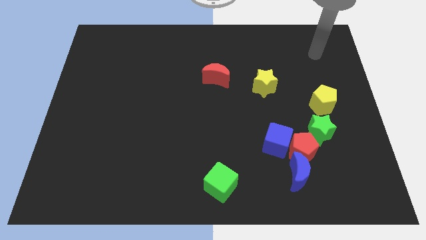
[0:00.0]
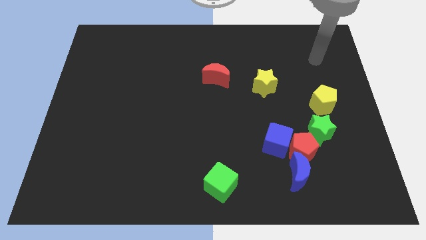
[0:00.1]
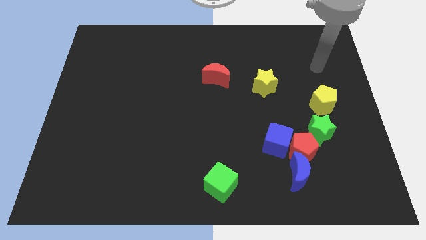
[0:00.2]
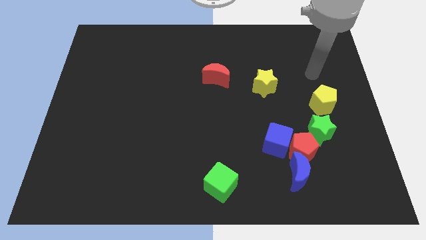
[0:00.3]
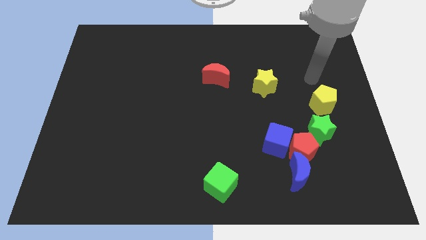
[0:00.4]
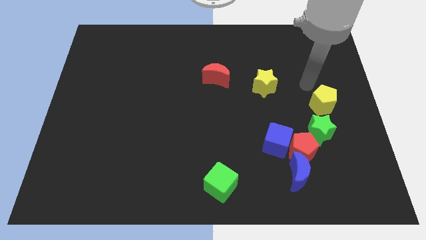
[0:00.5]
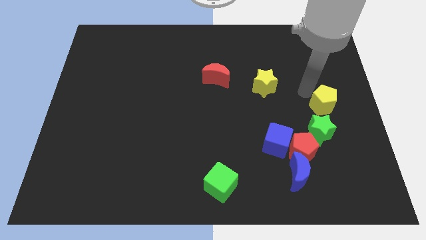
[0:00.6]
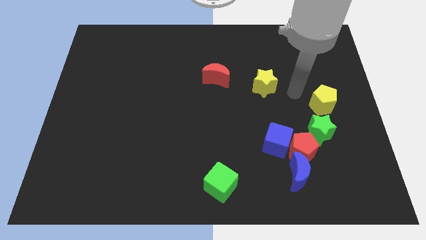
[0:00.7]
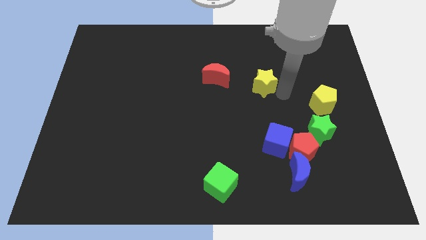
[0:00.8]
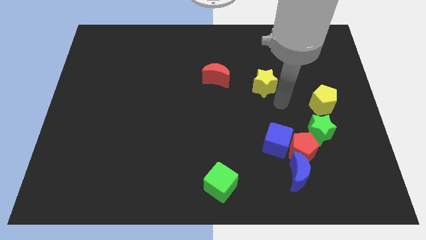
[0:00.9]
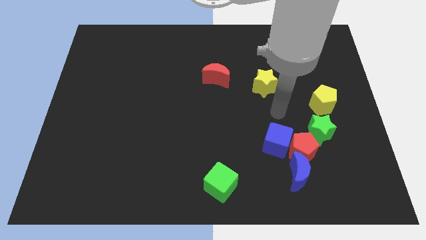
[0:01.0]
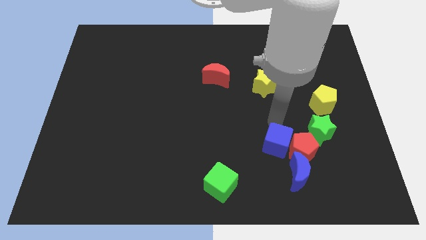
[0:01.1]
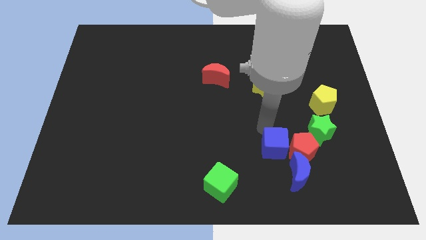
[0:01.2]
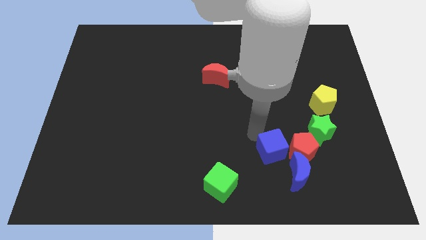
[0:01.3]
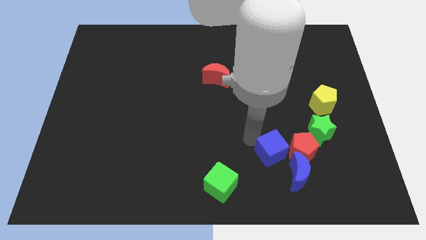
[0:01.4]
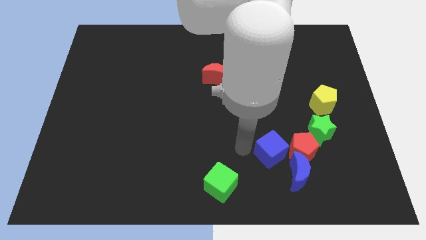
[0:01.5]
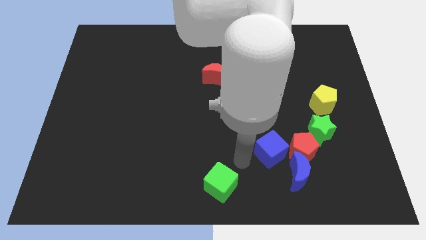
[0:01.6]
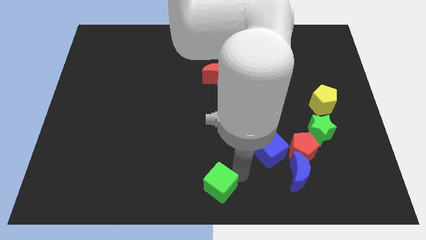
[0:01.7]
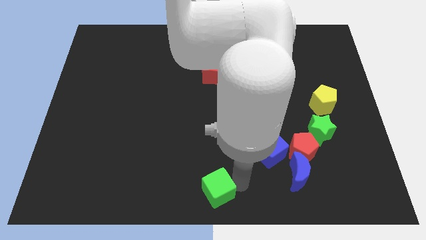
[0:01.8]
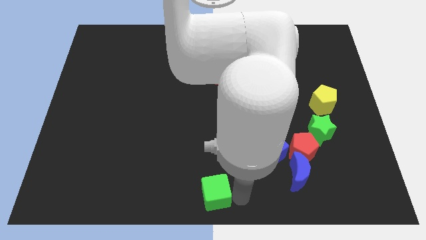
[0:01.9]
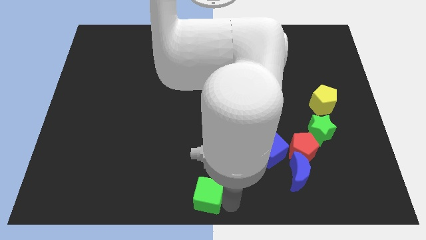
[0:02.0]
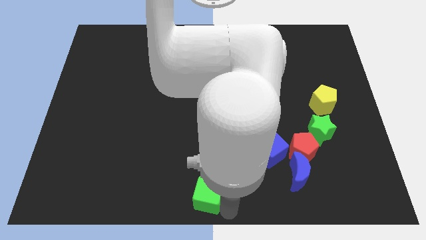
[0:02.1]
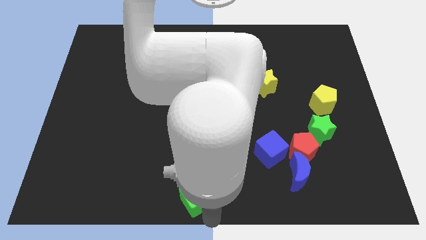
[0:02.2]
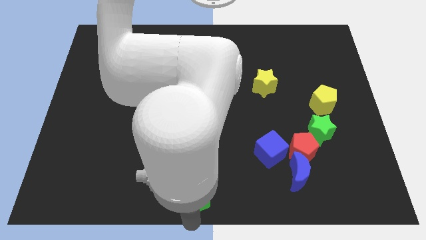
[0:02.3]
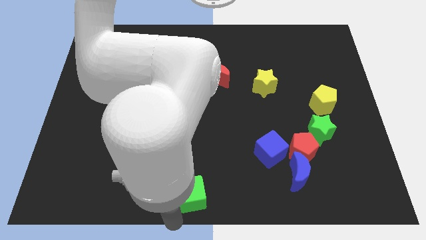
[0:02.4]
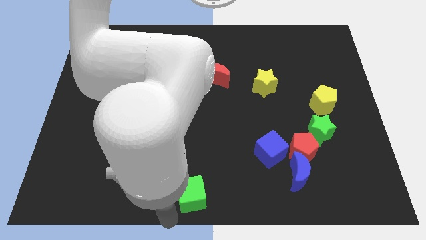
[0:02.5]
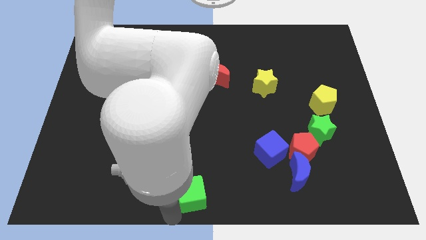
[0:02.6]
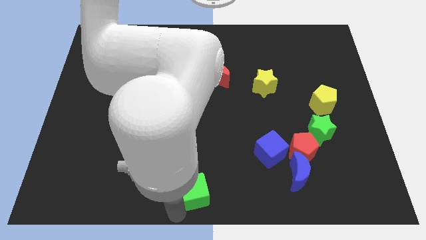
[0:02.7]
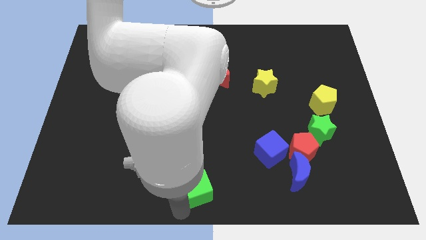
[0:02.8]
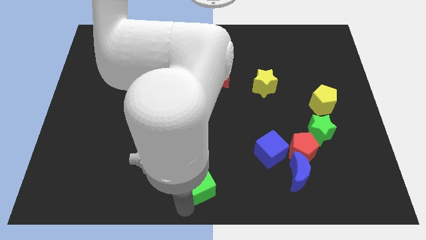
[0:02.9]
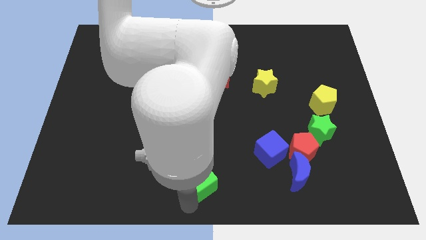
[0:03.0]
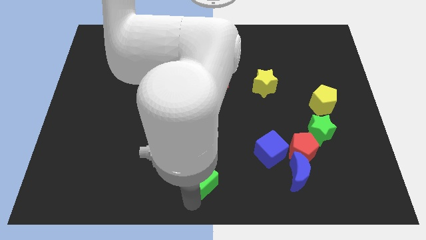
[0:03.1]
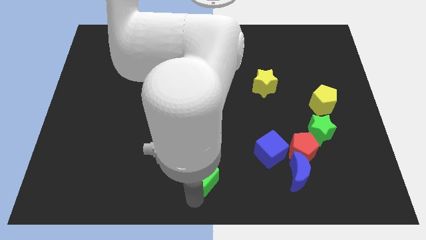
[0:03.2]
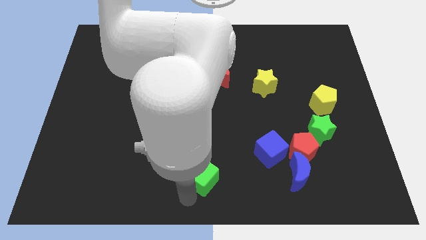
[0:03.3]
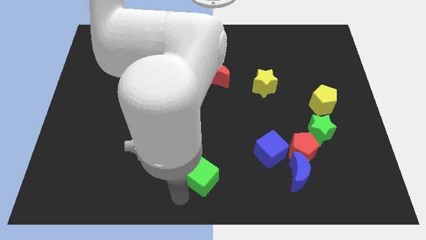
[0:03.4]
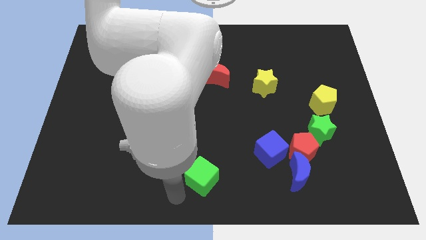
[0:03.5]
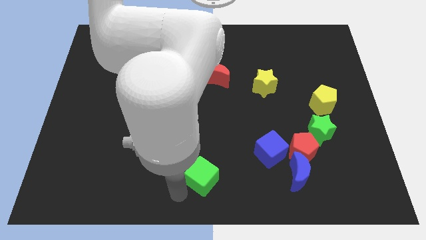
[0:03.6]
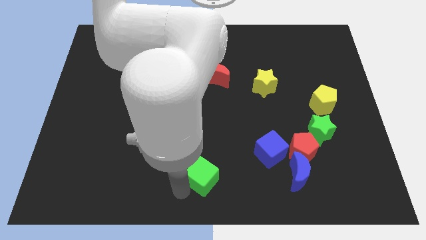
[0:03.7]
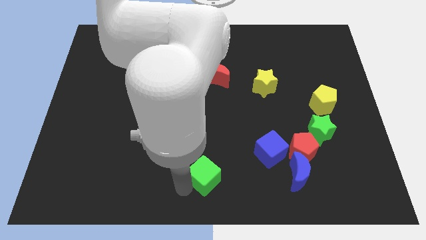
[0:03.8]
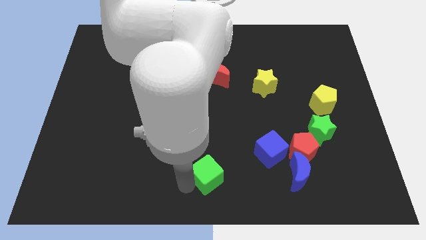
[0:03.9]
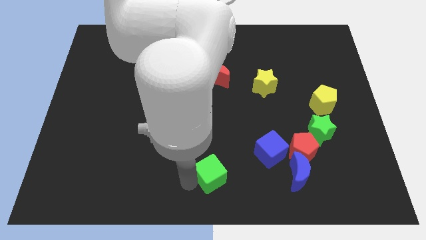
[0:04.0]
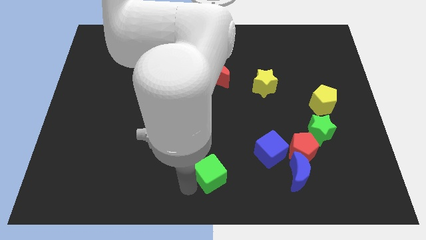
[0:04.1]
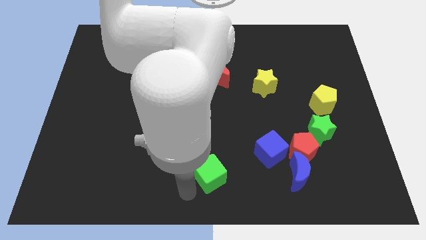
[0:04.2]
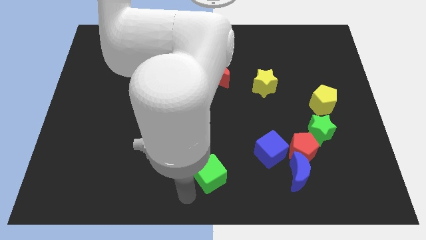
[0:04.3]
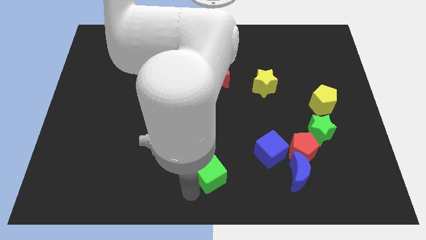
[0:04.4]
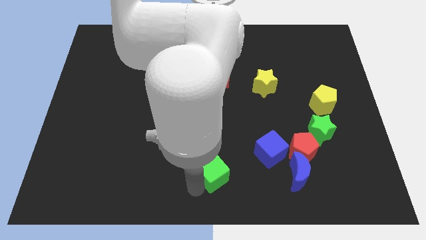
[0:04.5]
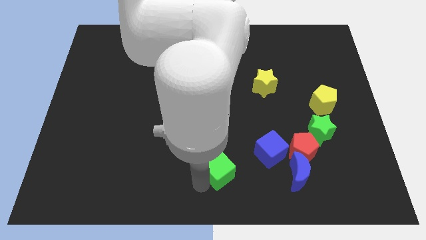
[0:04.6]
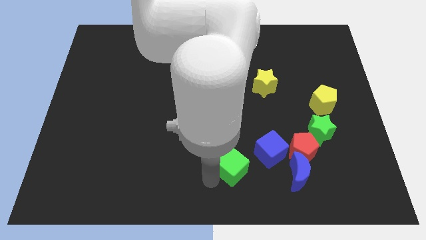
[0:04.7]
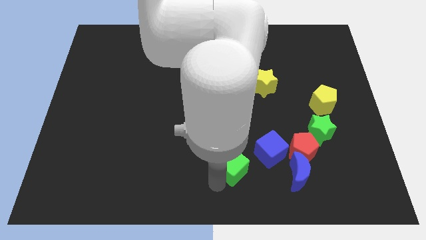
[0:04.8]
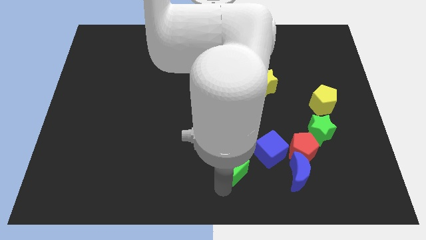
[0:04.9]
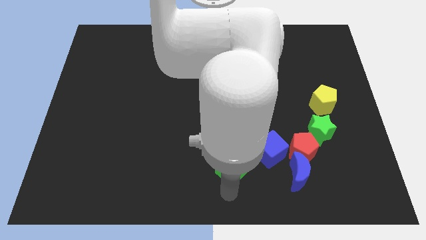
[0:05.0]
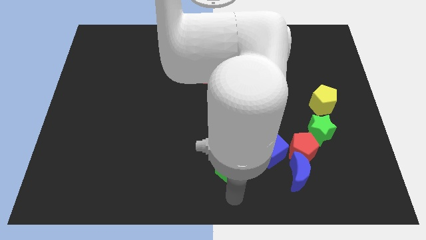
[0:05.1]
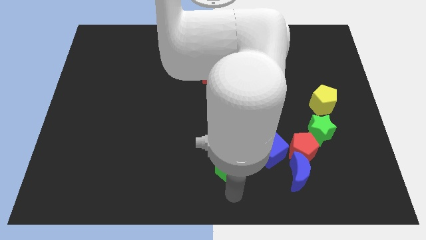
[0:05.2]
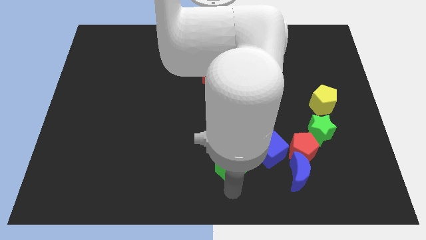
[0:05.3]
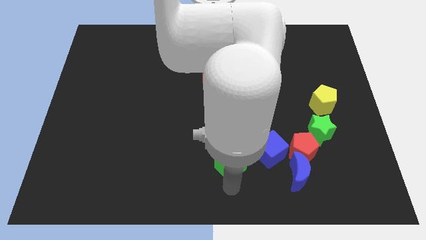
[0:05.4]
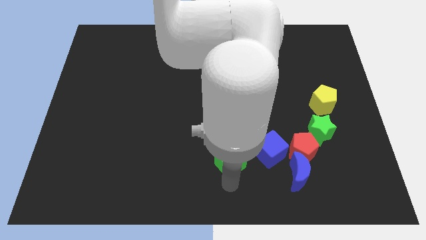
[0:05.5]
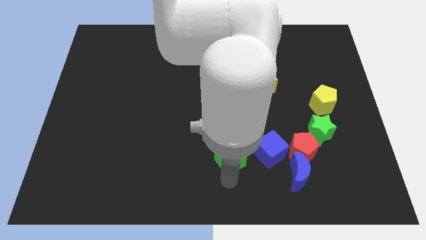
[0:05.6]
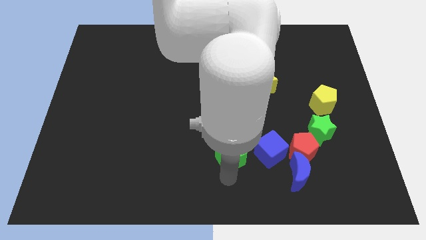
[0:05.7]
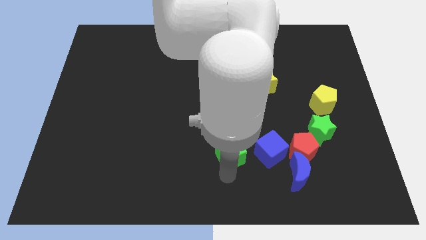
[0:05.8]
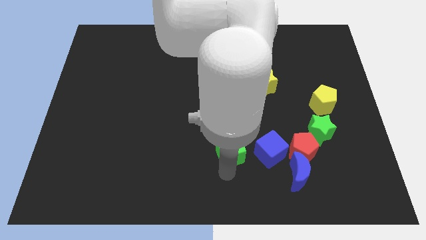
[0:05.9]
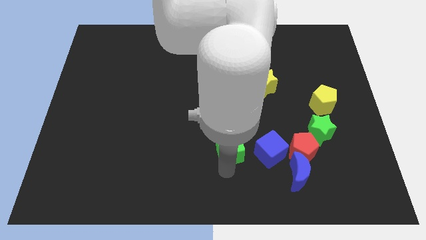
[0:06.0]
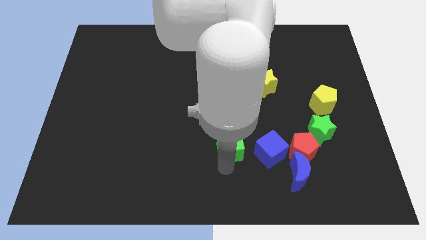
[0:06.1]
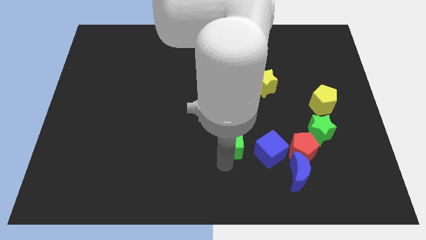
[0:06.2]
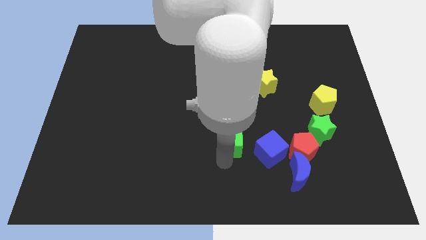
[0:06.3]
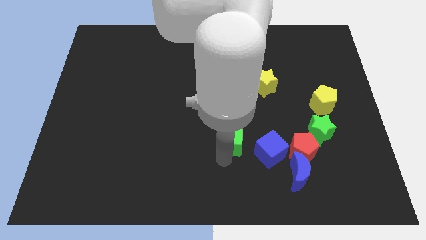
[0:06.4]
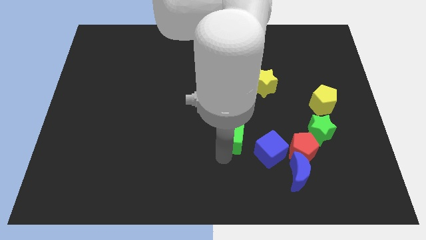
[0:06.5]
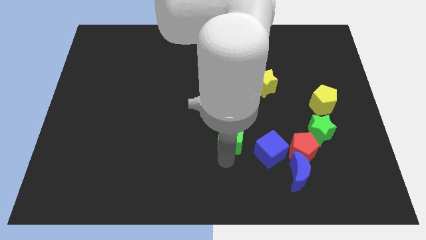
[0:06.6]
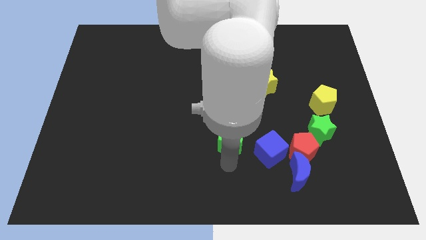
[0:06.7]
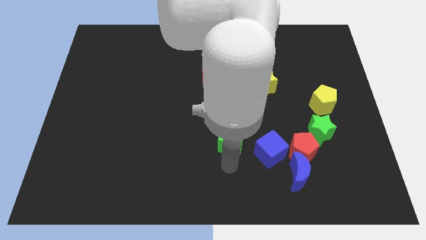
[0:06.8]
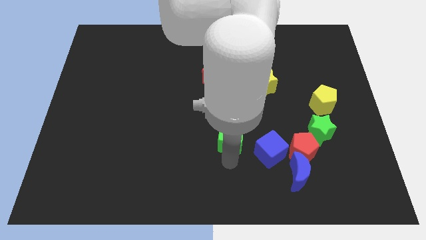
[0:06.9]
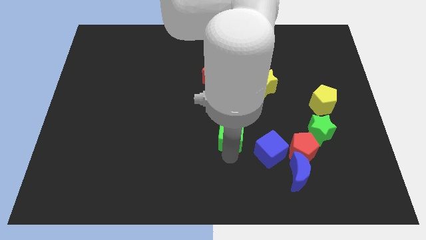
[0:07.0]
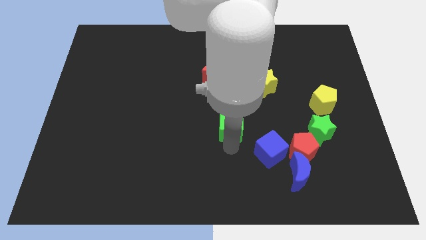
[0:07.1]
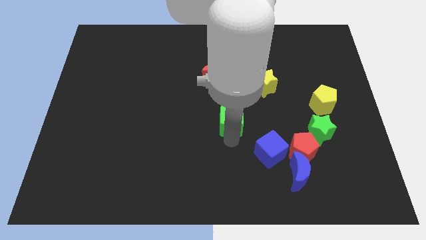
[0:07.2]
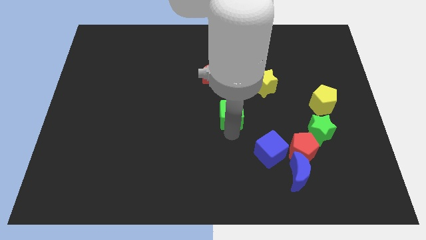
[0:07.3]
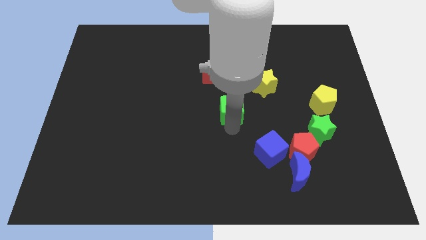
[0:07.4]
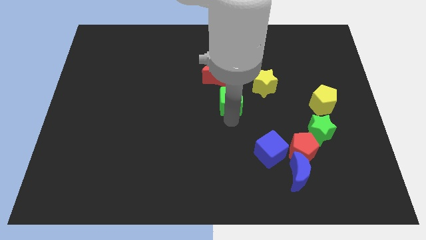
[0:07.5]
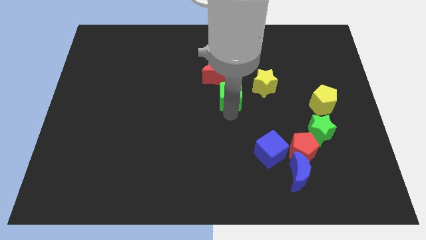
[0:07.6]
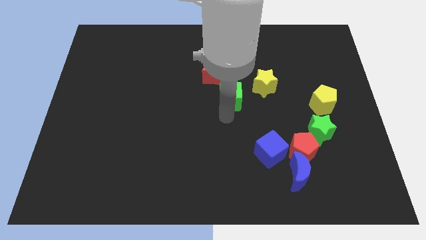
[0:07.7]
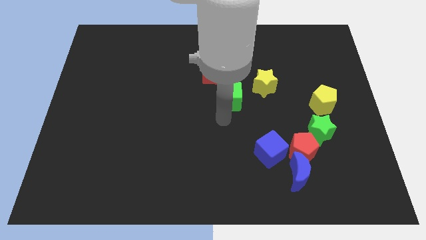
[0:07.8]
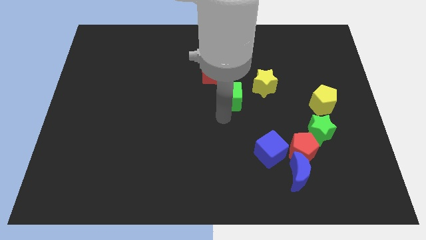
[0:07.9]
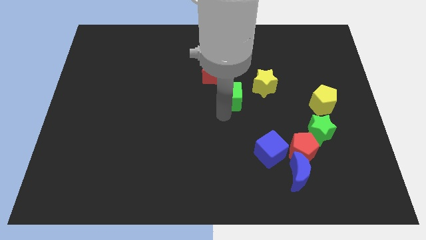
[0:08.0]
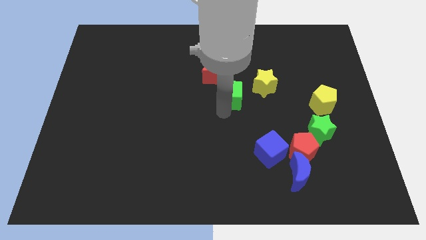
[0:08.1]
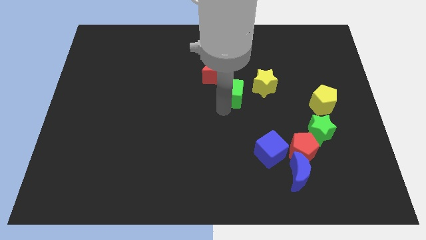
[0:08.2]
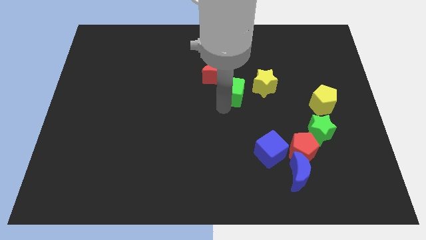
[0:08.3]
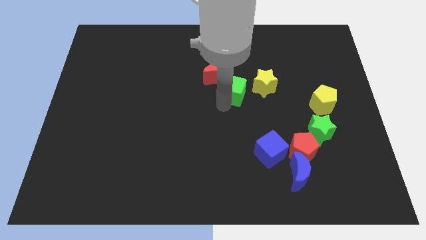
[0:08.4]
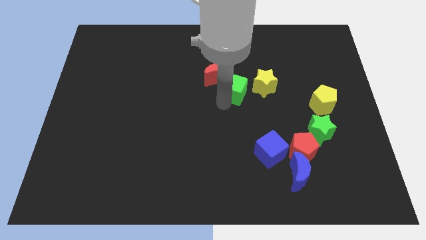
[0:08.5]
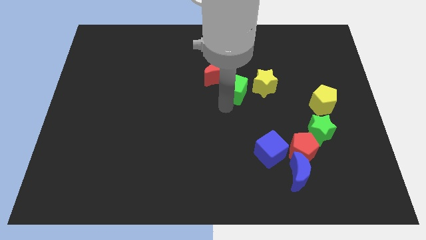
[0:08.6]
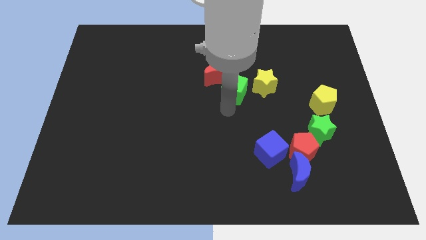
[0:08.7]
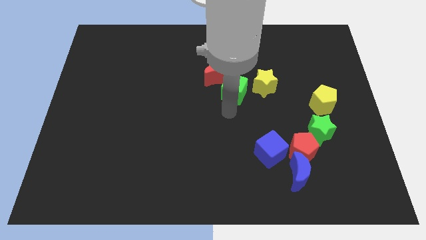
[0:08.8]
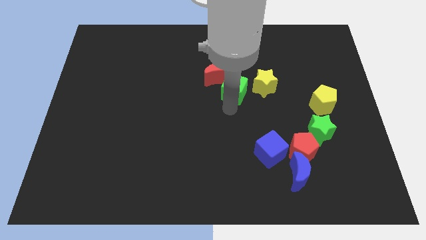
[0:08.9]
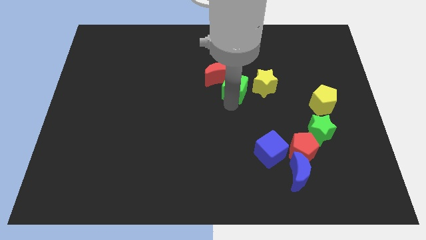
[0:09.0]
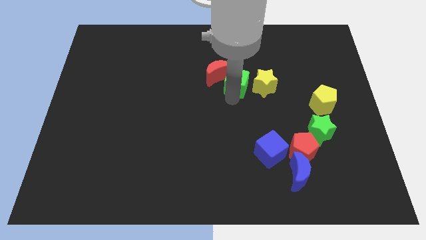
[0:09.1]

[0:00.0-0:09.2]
push the green cube to the top left side of the yellow star
